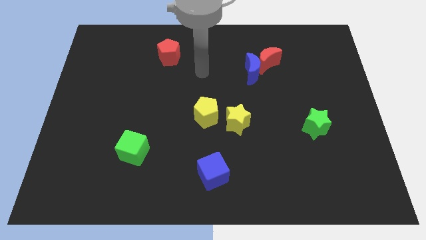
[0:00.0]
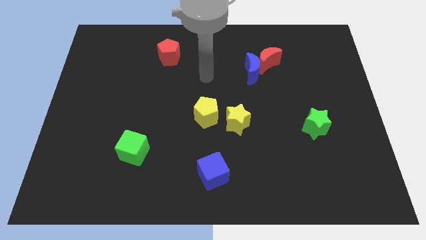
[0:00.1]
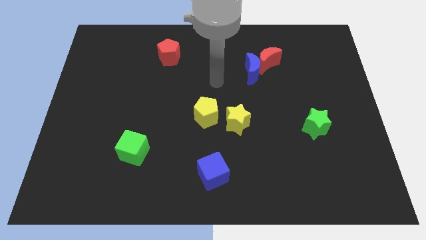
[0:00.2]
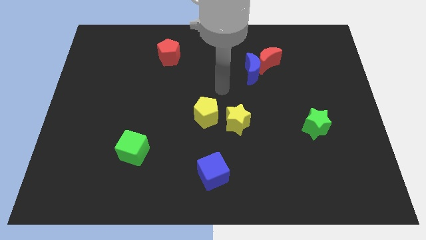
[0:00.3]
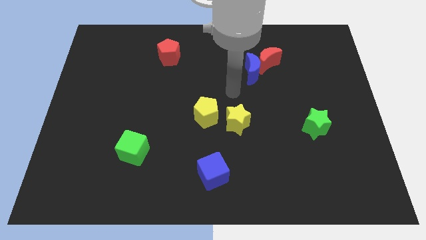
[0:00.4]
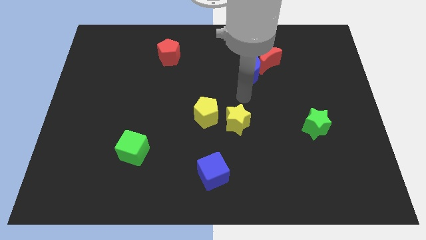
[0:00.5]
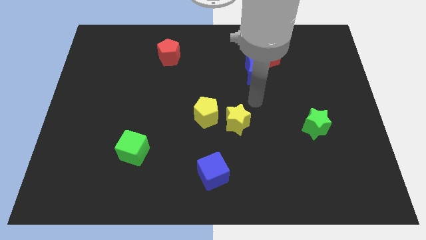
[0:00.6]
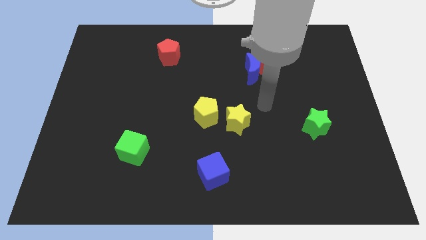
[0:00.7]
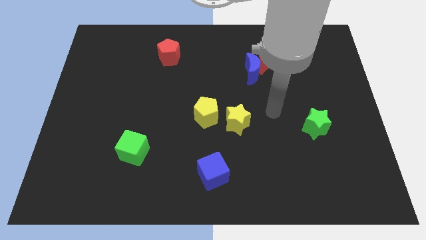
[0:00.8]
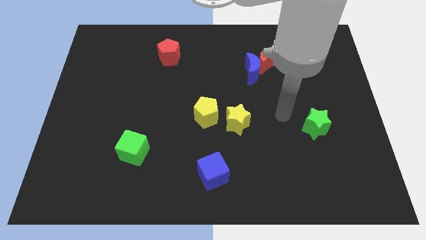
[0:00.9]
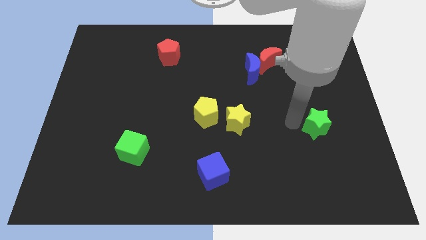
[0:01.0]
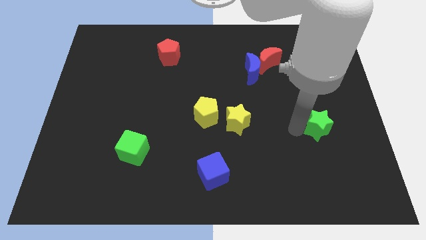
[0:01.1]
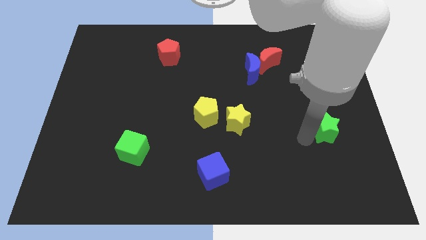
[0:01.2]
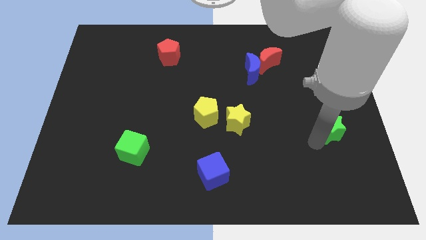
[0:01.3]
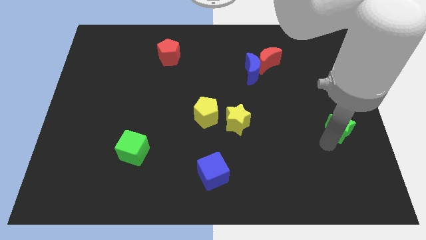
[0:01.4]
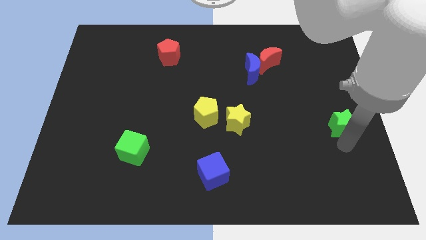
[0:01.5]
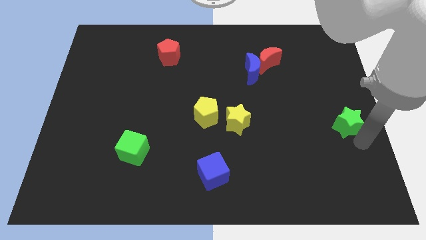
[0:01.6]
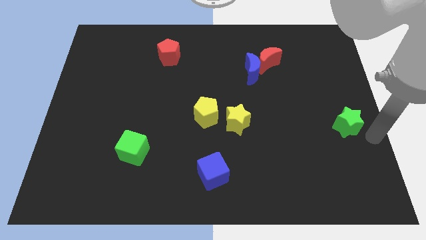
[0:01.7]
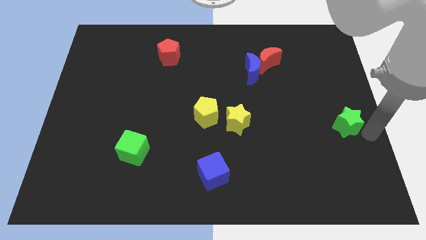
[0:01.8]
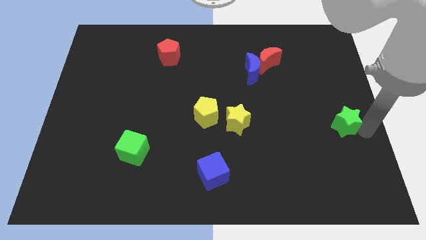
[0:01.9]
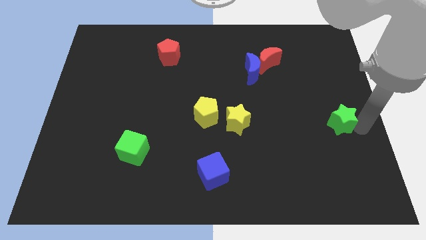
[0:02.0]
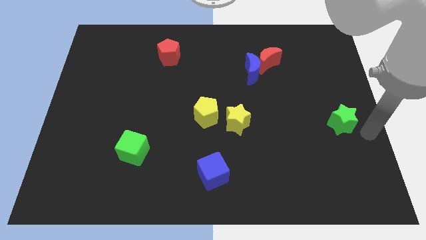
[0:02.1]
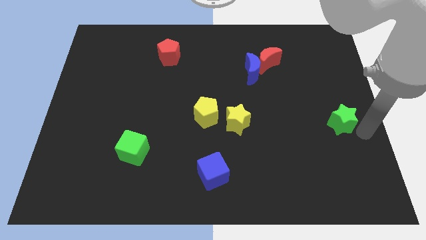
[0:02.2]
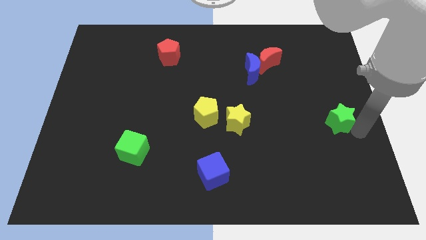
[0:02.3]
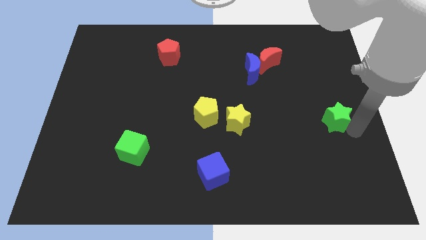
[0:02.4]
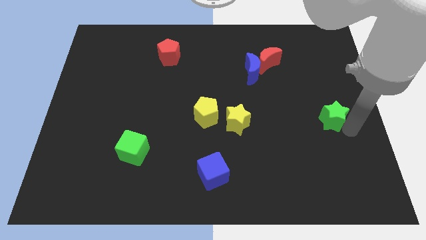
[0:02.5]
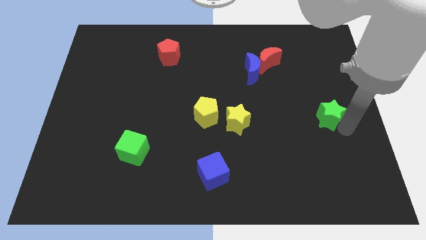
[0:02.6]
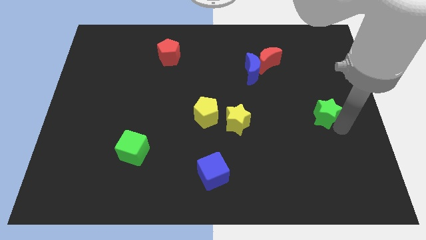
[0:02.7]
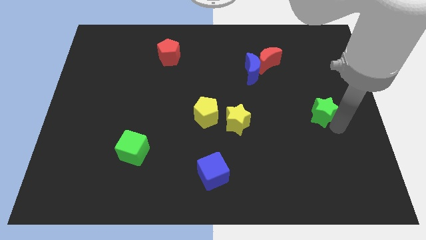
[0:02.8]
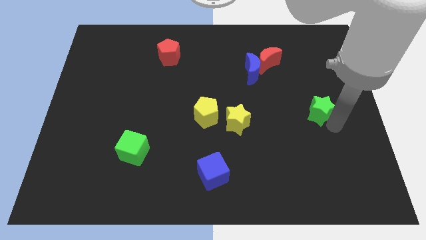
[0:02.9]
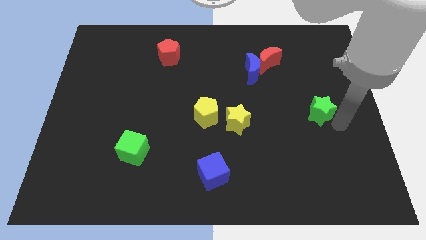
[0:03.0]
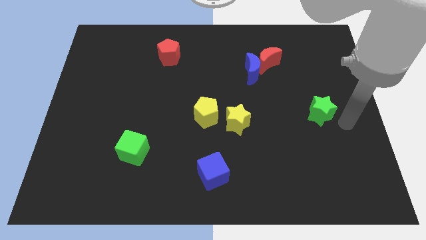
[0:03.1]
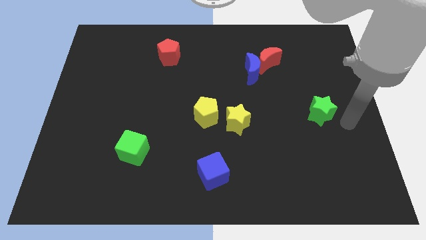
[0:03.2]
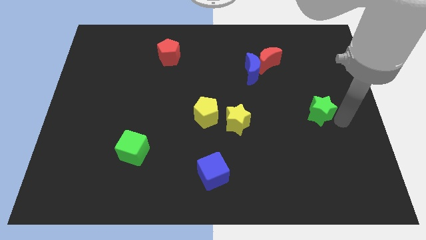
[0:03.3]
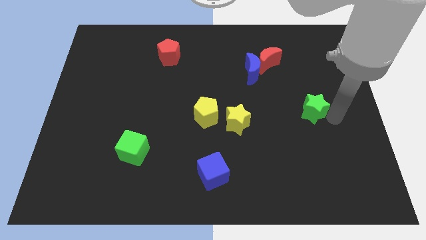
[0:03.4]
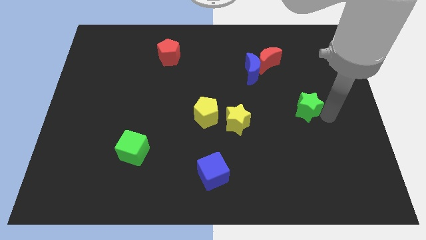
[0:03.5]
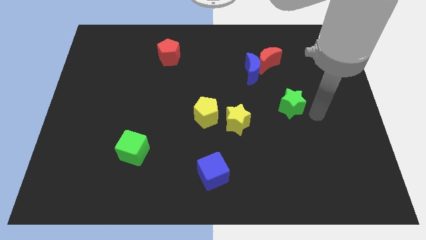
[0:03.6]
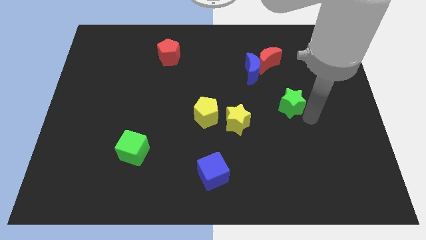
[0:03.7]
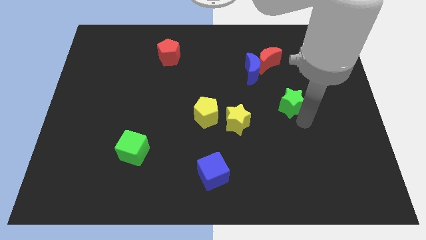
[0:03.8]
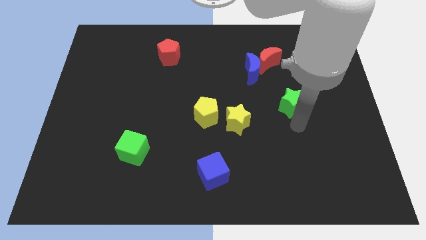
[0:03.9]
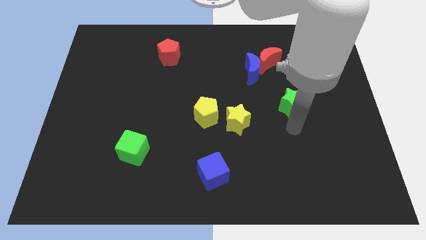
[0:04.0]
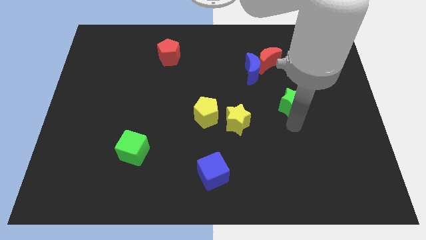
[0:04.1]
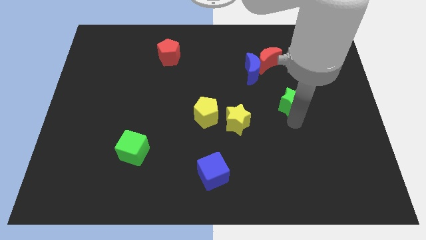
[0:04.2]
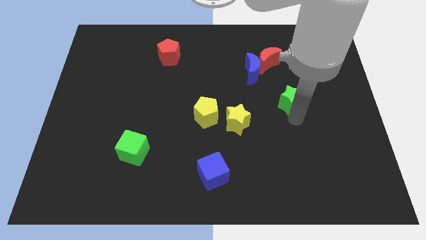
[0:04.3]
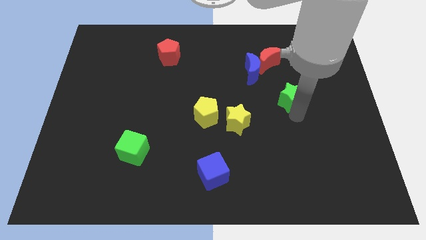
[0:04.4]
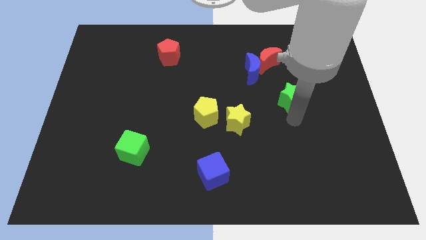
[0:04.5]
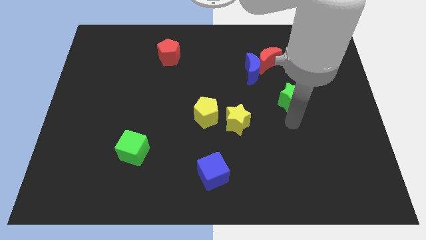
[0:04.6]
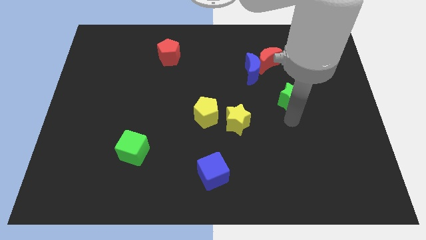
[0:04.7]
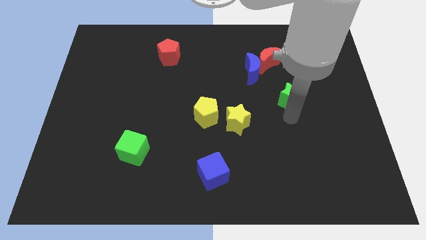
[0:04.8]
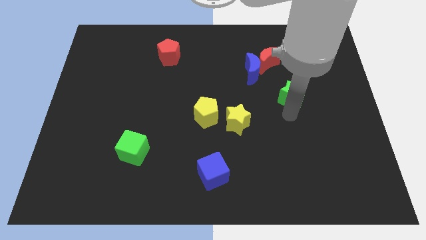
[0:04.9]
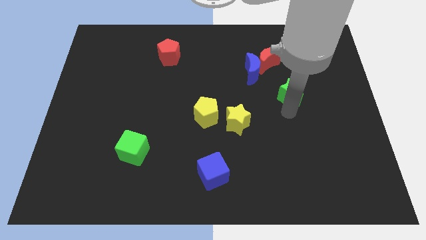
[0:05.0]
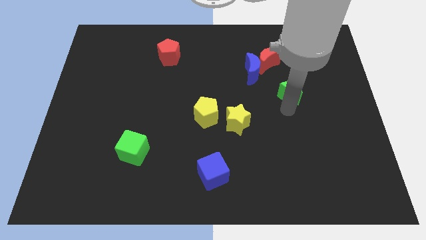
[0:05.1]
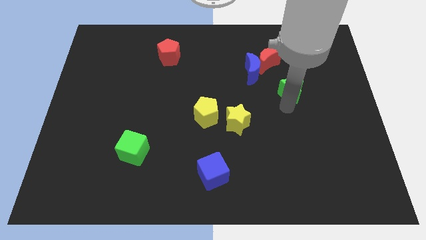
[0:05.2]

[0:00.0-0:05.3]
move the green star to the bottom right side of the red moon

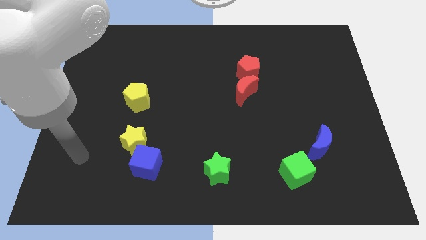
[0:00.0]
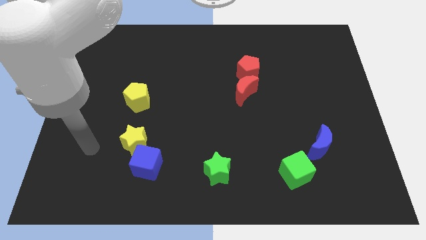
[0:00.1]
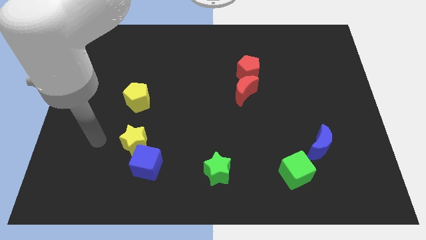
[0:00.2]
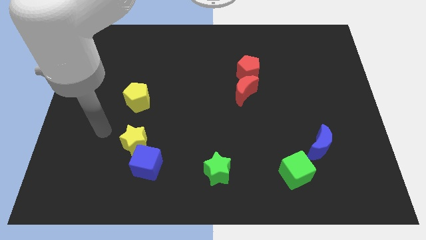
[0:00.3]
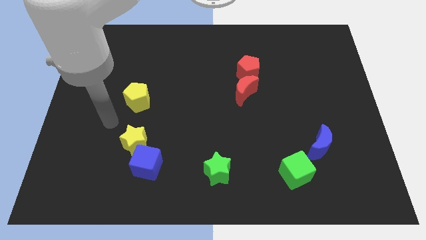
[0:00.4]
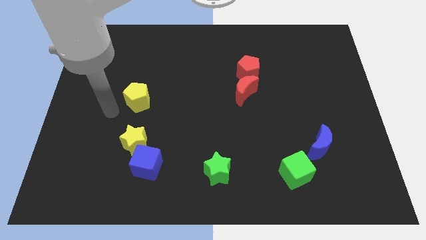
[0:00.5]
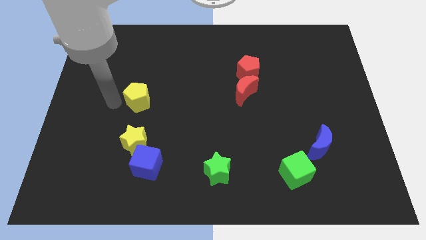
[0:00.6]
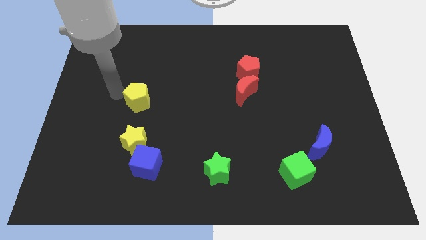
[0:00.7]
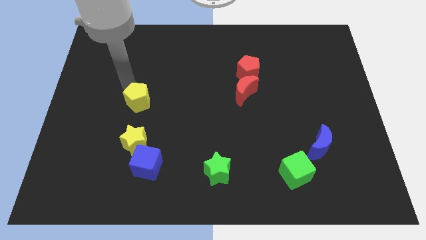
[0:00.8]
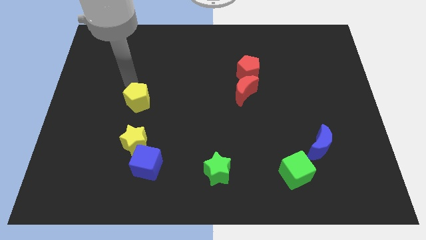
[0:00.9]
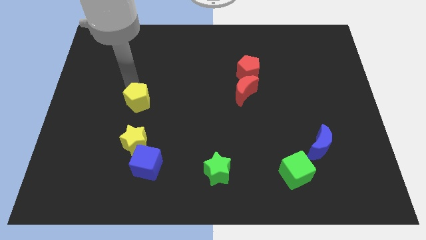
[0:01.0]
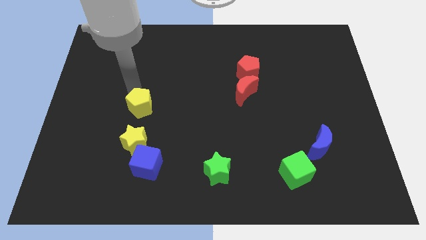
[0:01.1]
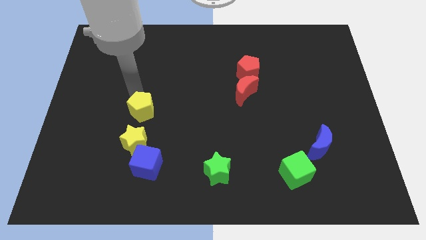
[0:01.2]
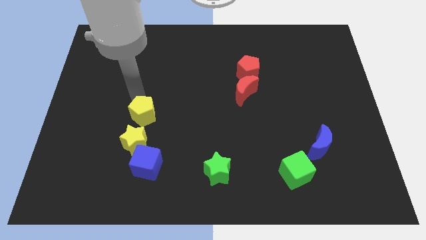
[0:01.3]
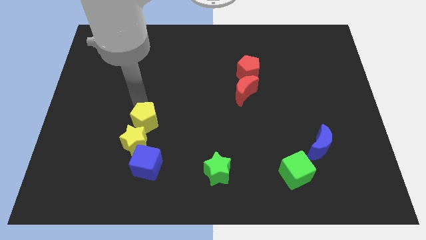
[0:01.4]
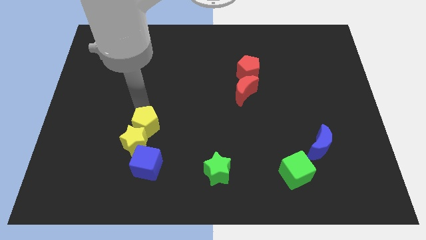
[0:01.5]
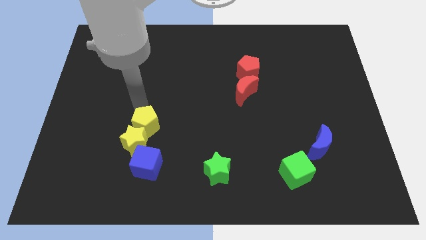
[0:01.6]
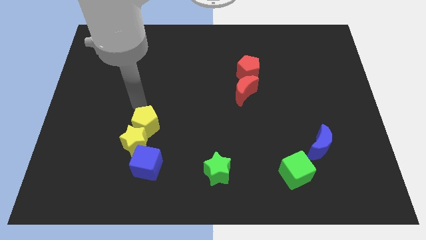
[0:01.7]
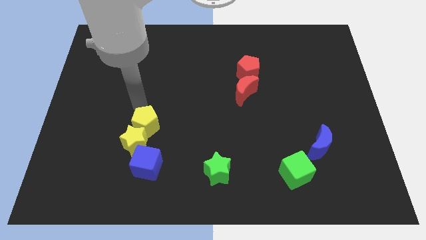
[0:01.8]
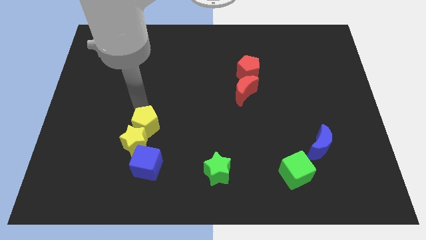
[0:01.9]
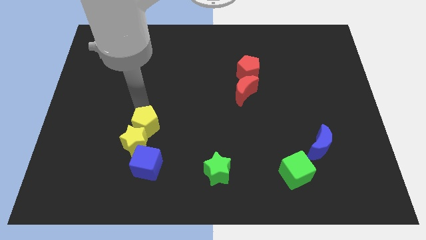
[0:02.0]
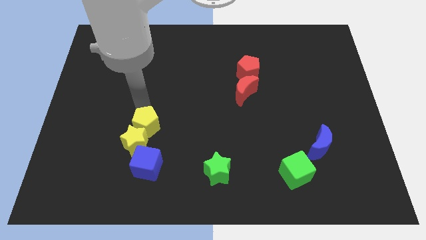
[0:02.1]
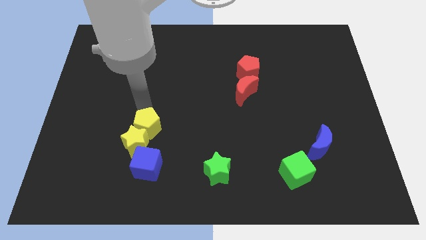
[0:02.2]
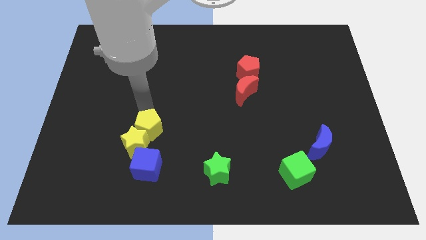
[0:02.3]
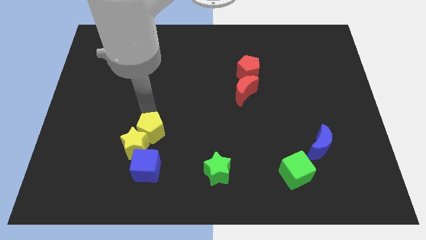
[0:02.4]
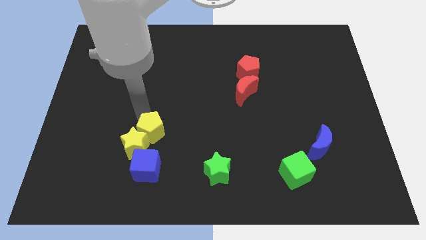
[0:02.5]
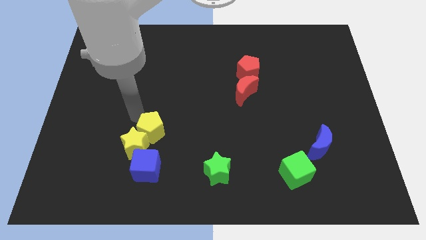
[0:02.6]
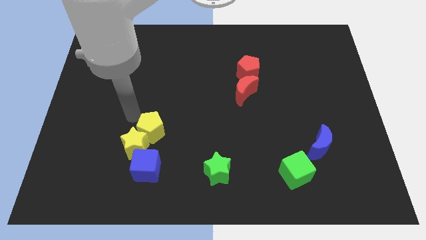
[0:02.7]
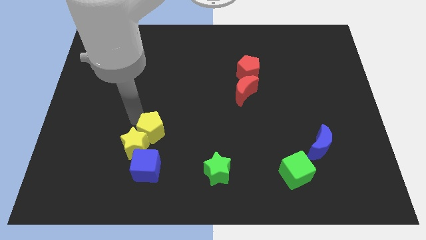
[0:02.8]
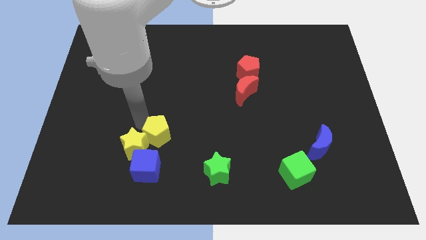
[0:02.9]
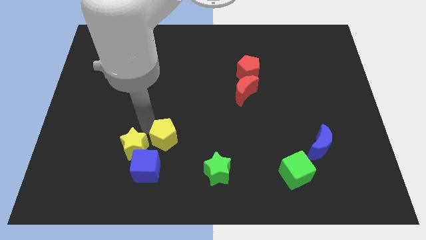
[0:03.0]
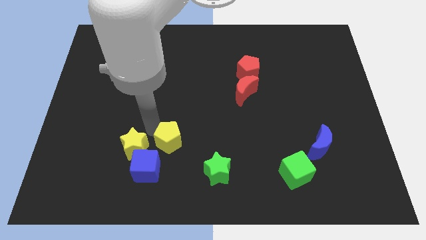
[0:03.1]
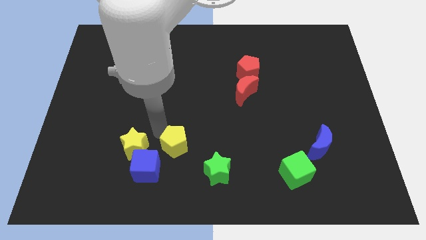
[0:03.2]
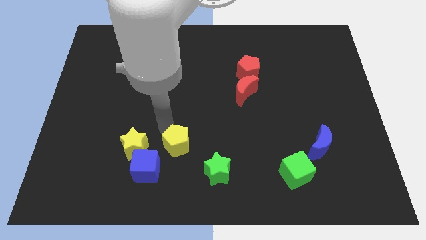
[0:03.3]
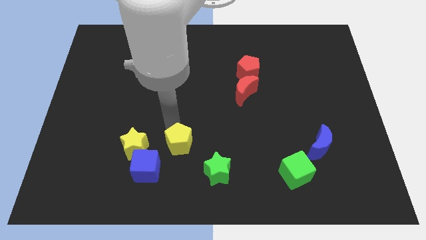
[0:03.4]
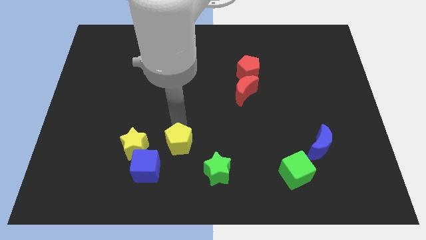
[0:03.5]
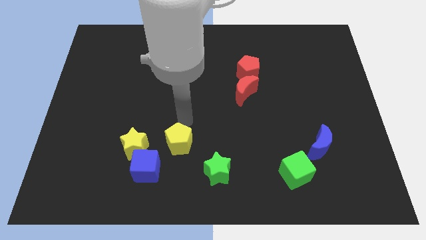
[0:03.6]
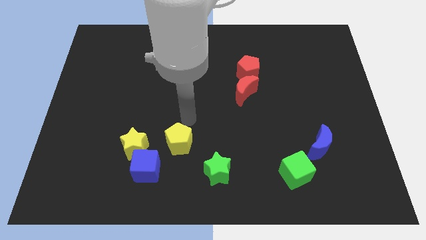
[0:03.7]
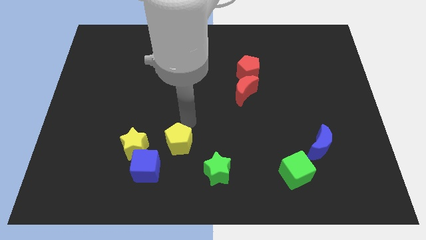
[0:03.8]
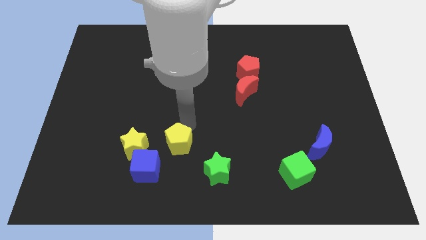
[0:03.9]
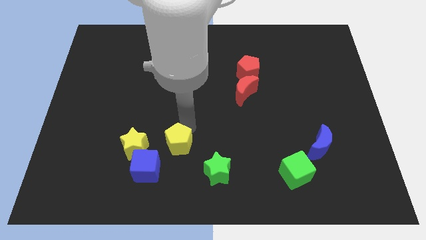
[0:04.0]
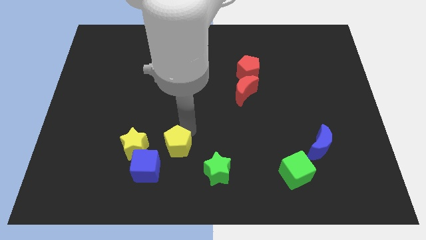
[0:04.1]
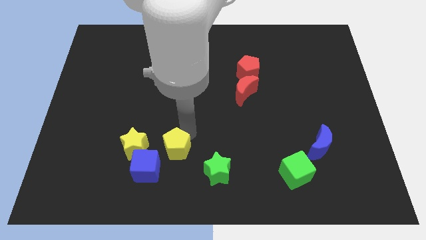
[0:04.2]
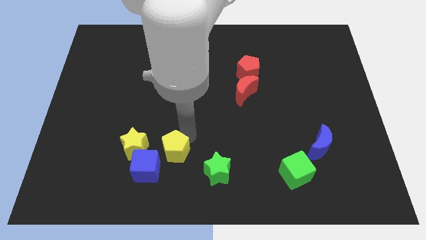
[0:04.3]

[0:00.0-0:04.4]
move the yellow pentagon left of the green star
